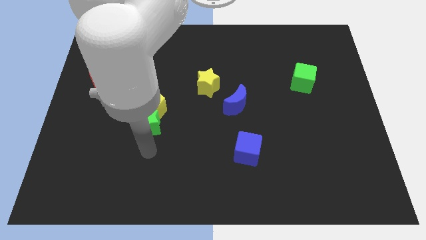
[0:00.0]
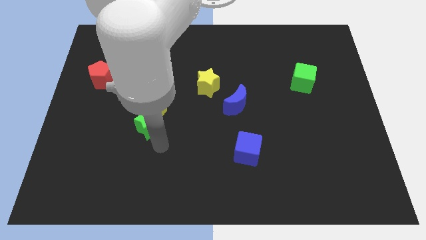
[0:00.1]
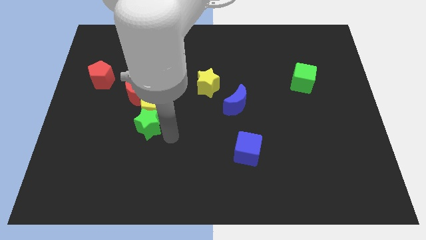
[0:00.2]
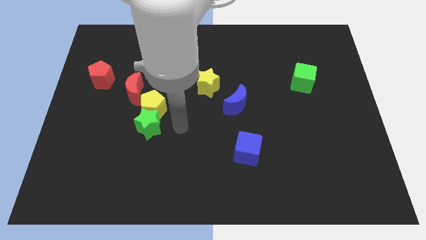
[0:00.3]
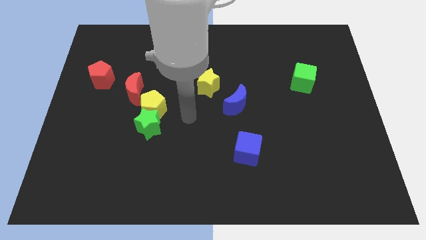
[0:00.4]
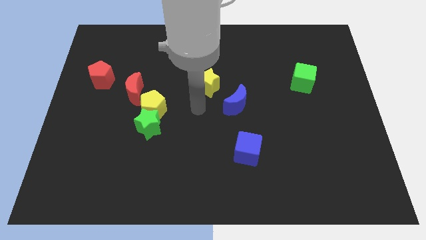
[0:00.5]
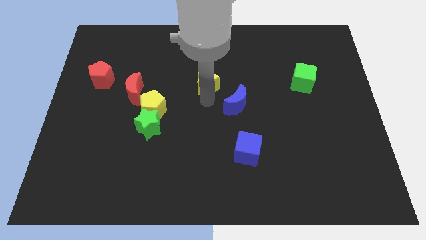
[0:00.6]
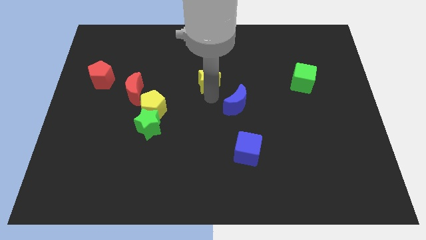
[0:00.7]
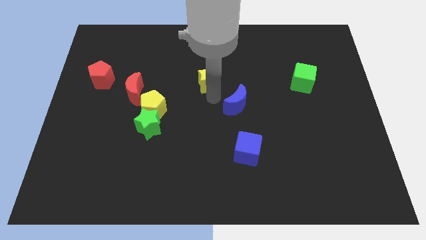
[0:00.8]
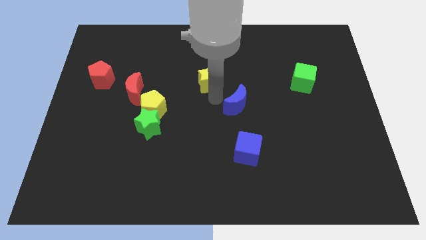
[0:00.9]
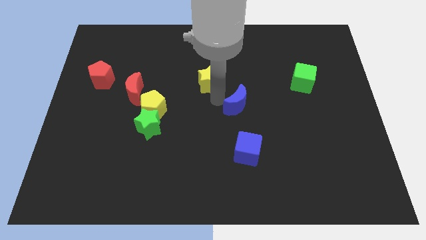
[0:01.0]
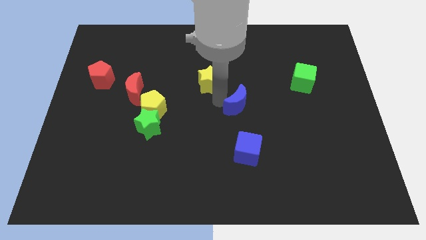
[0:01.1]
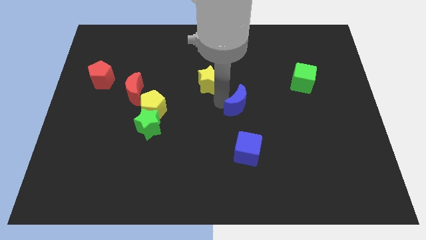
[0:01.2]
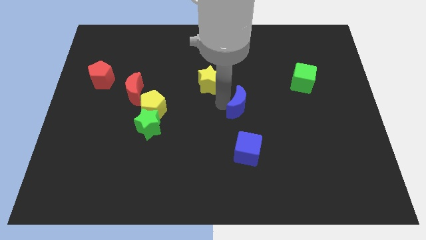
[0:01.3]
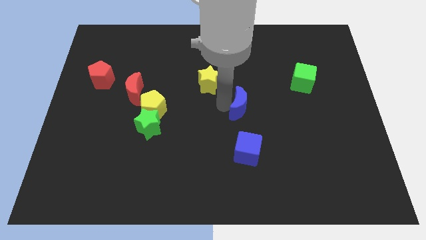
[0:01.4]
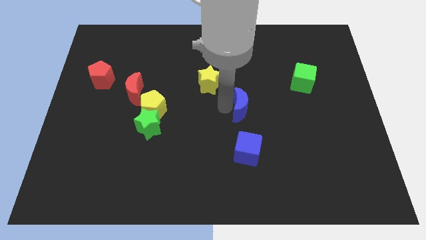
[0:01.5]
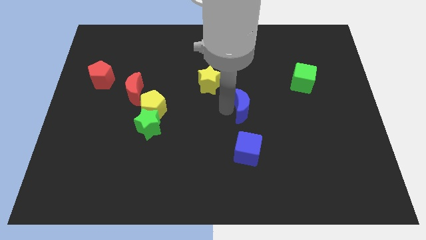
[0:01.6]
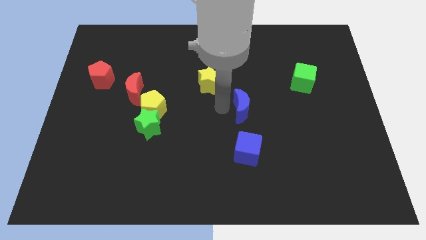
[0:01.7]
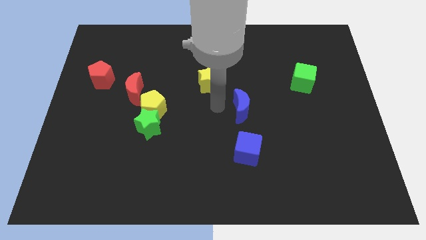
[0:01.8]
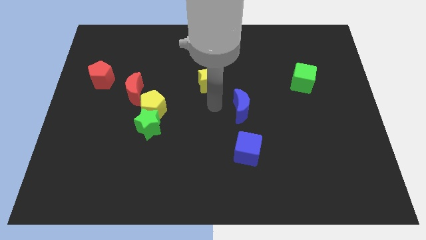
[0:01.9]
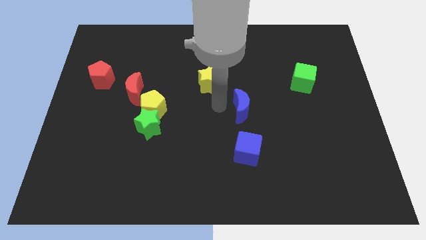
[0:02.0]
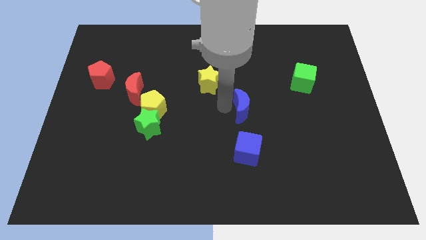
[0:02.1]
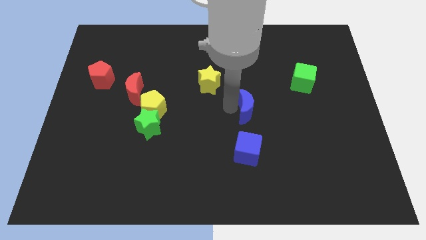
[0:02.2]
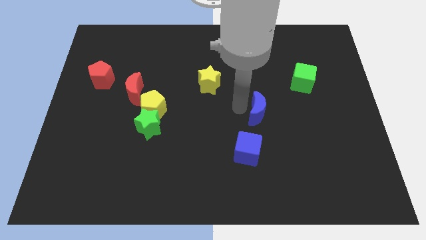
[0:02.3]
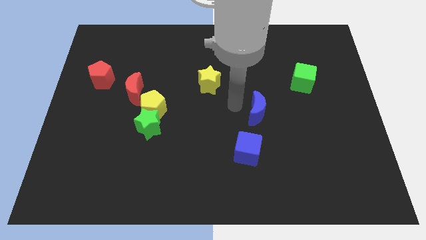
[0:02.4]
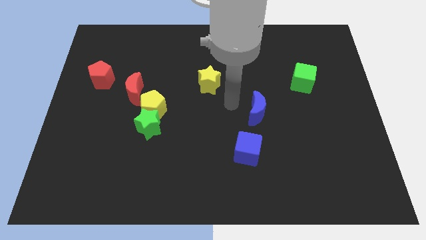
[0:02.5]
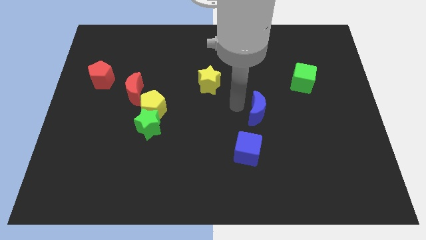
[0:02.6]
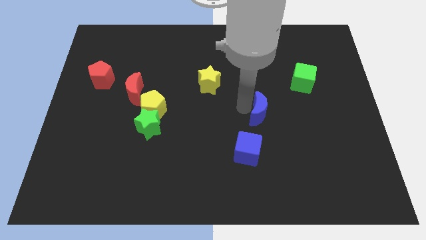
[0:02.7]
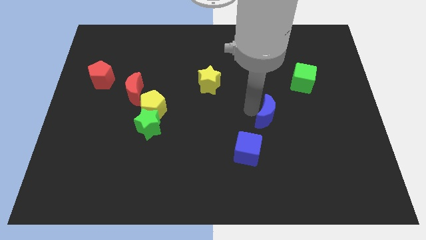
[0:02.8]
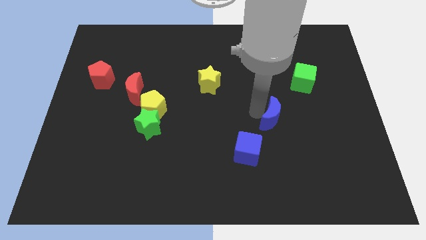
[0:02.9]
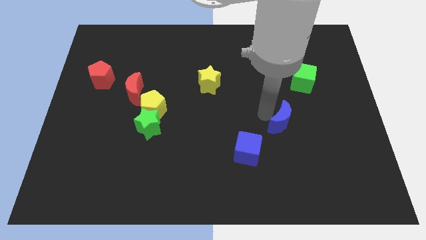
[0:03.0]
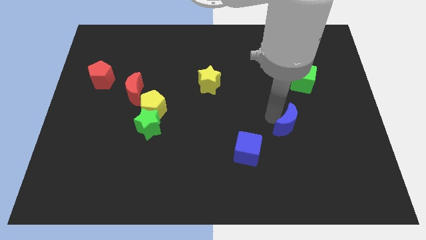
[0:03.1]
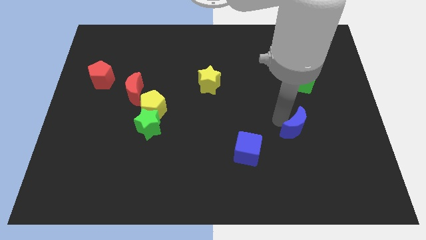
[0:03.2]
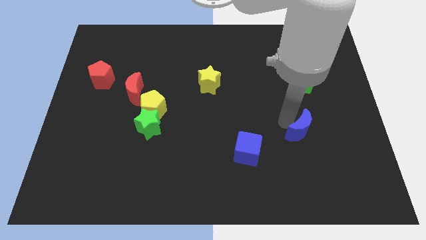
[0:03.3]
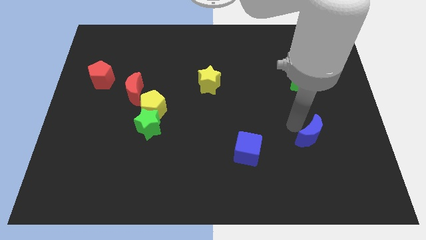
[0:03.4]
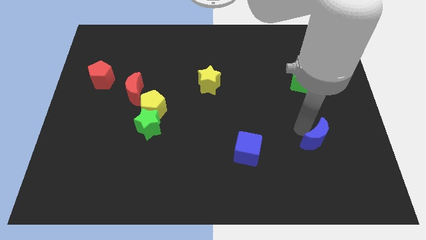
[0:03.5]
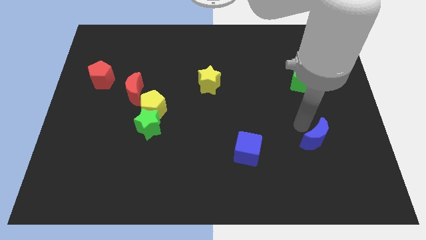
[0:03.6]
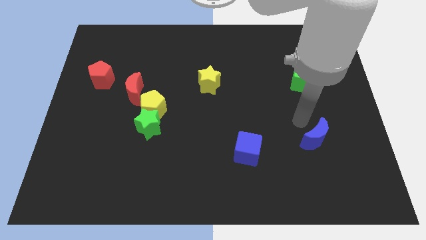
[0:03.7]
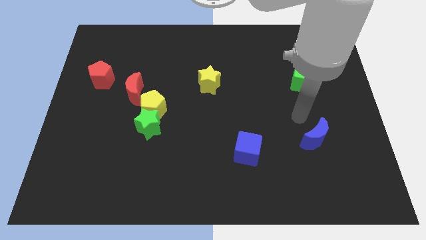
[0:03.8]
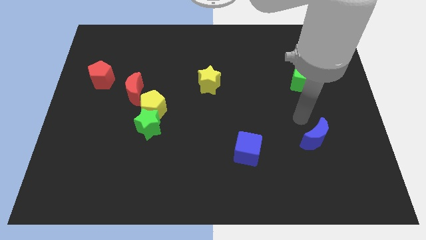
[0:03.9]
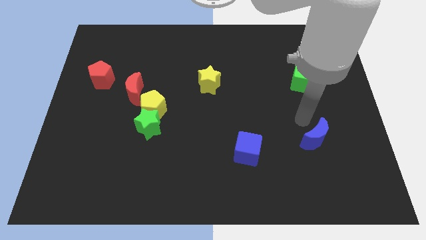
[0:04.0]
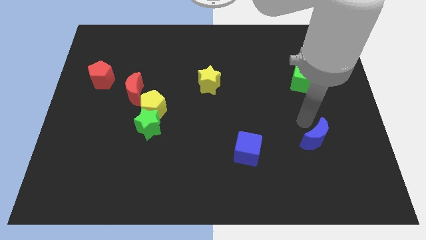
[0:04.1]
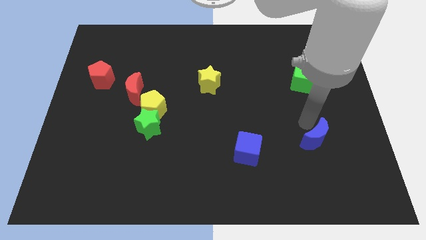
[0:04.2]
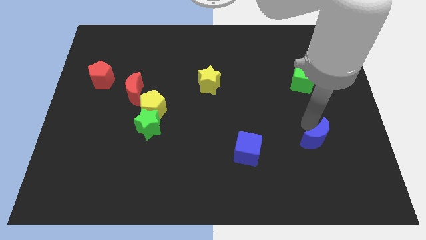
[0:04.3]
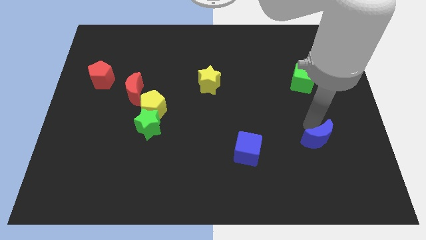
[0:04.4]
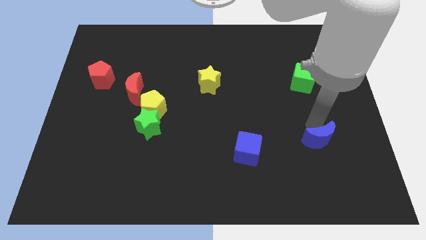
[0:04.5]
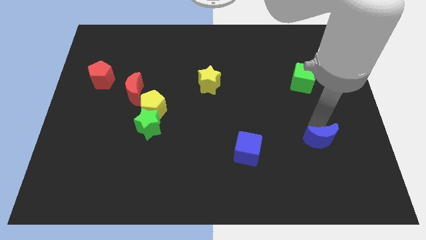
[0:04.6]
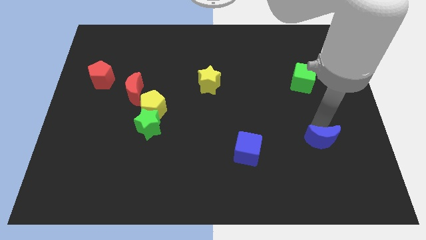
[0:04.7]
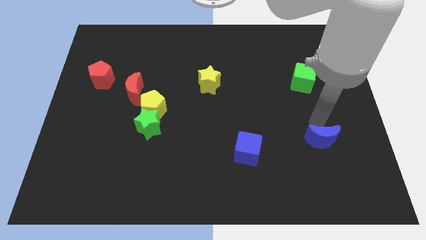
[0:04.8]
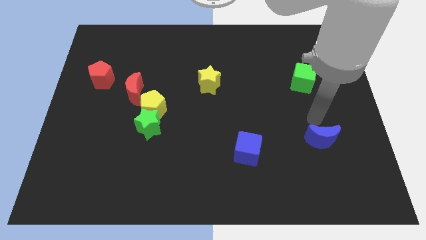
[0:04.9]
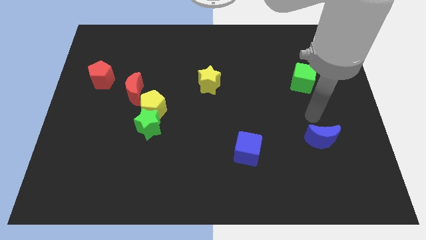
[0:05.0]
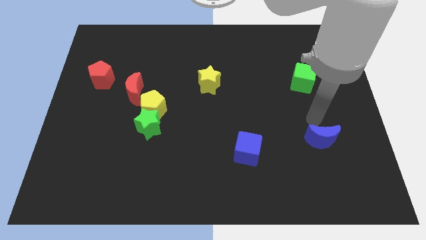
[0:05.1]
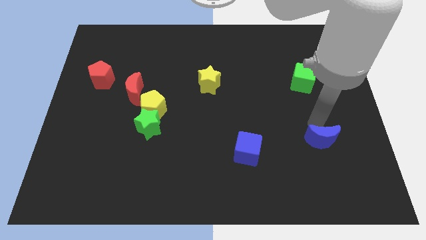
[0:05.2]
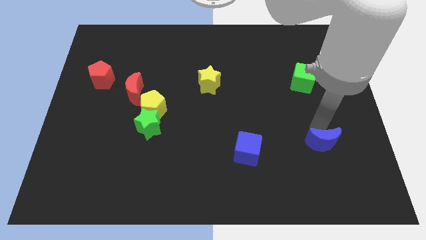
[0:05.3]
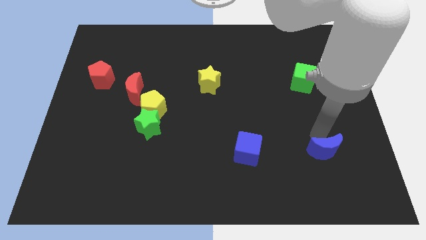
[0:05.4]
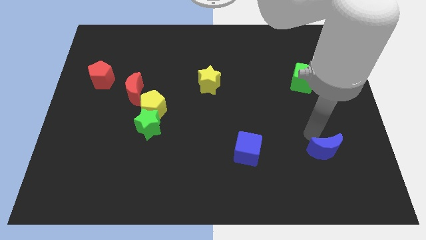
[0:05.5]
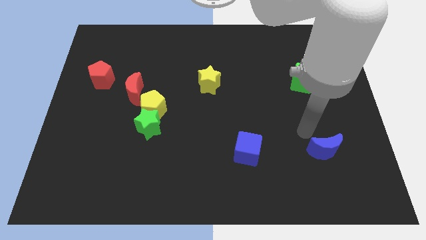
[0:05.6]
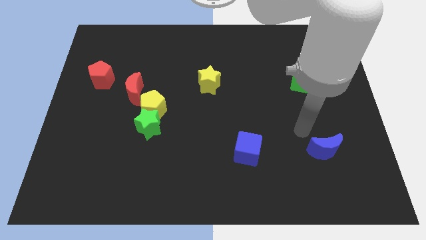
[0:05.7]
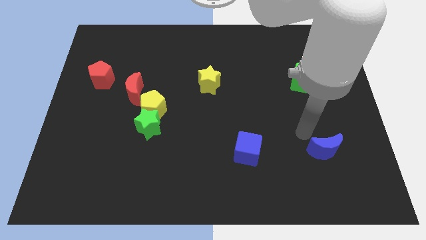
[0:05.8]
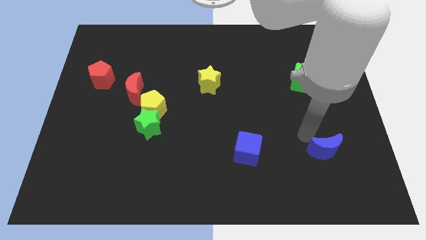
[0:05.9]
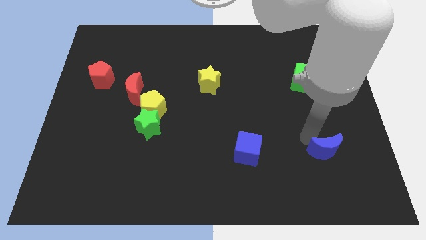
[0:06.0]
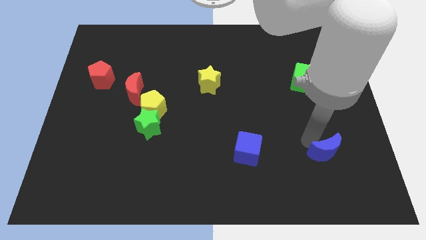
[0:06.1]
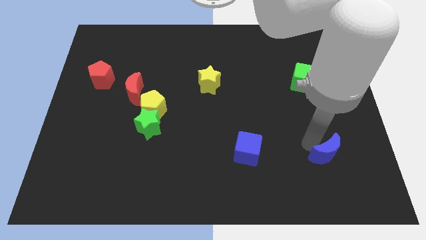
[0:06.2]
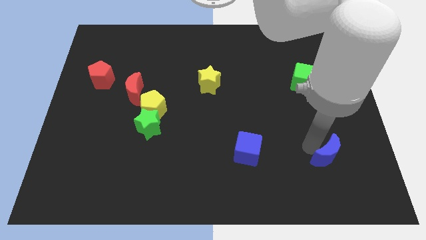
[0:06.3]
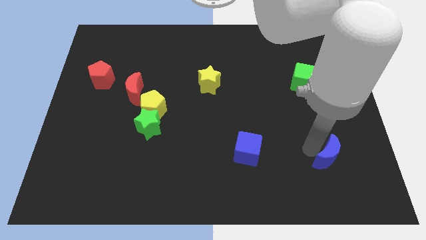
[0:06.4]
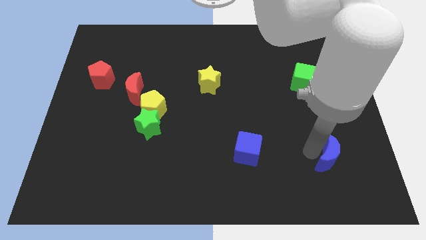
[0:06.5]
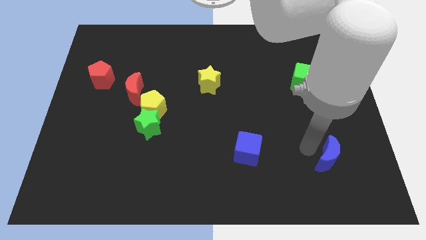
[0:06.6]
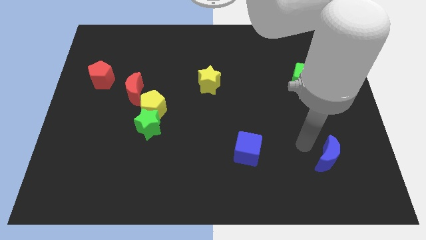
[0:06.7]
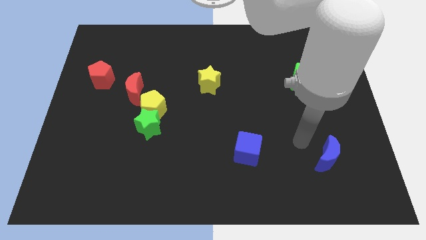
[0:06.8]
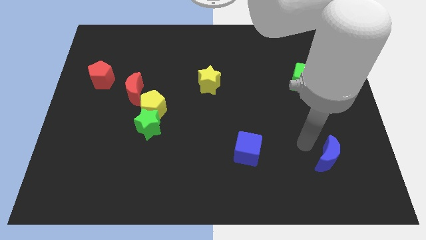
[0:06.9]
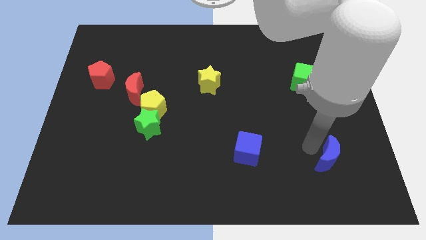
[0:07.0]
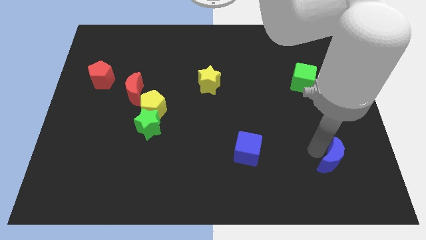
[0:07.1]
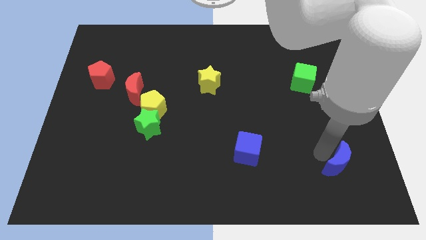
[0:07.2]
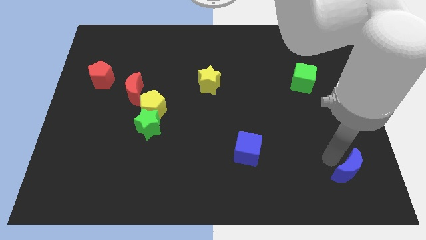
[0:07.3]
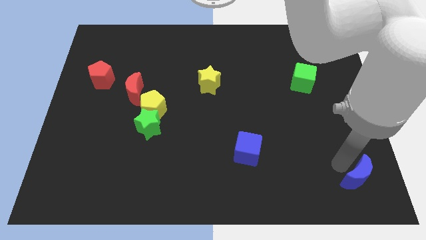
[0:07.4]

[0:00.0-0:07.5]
move the blue moon to the bottom right corner
